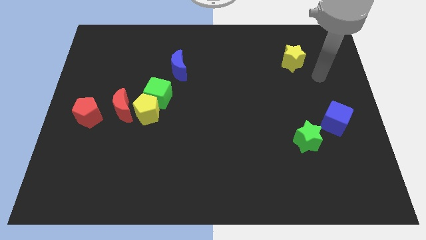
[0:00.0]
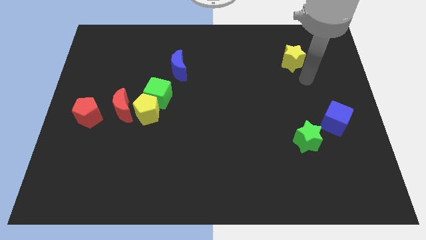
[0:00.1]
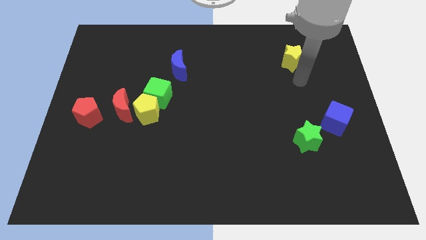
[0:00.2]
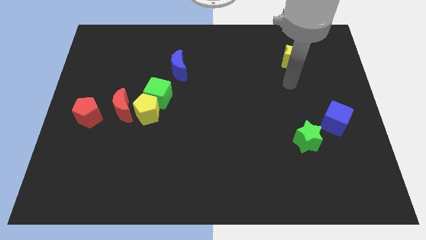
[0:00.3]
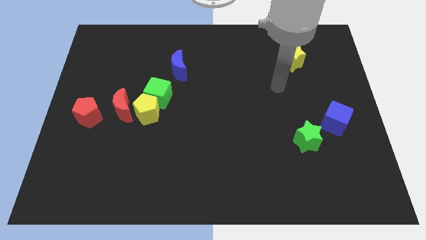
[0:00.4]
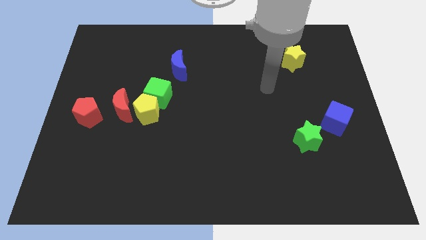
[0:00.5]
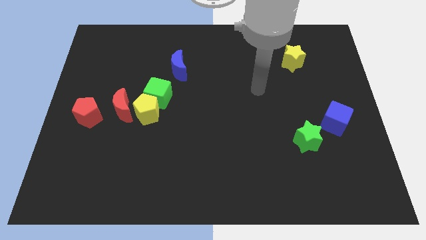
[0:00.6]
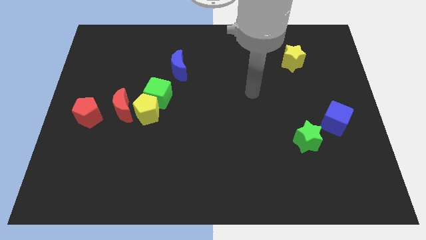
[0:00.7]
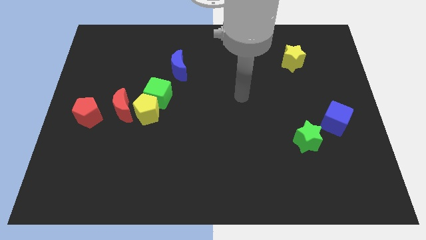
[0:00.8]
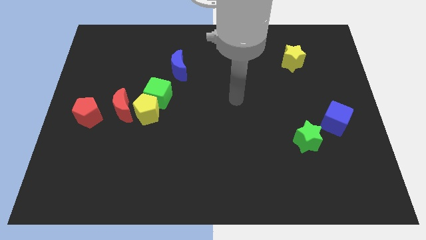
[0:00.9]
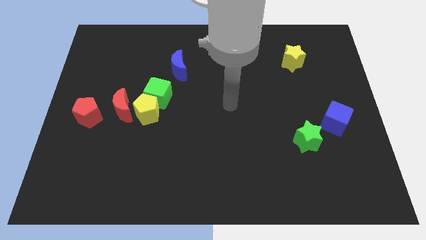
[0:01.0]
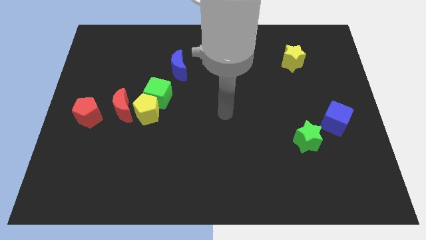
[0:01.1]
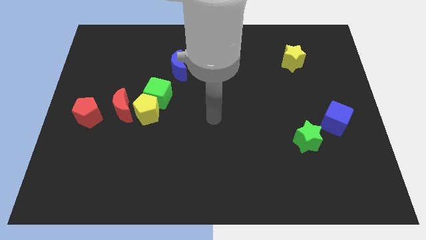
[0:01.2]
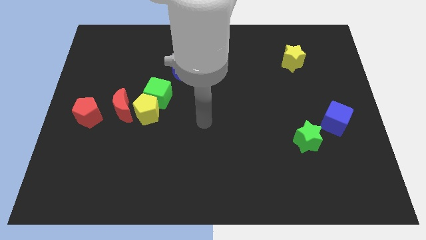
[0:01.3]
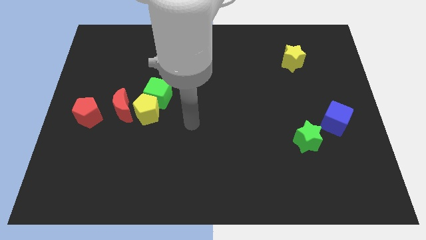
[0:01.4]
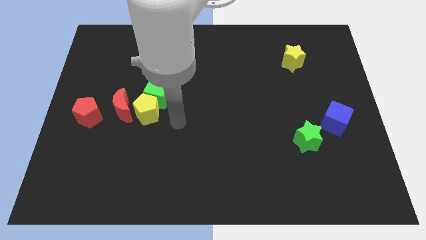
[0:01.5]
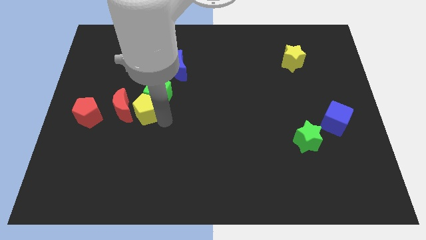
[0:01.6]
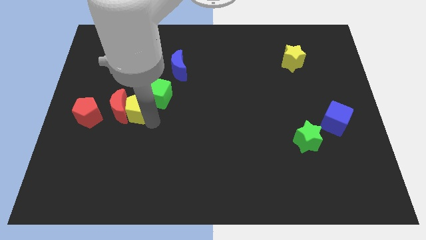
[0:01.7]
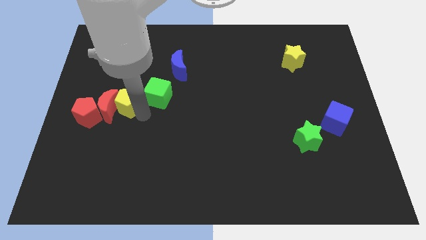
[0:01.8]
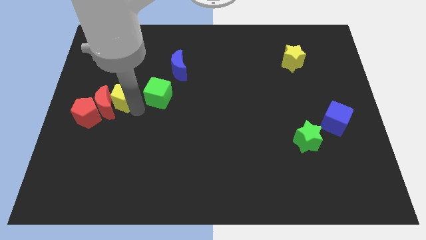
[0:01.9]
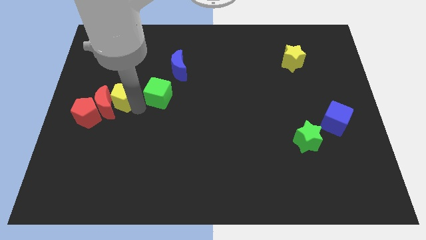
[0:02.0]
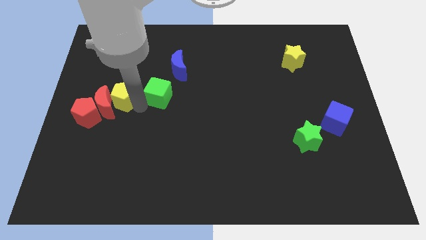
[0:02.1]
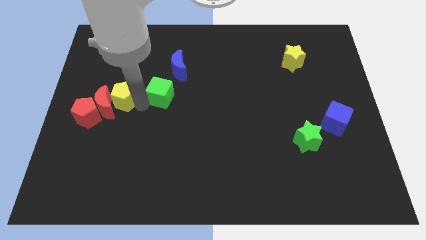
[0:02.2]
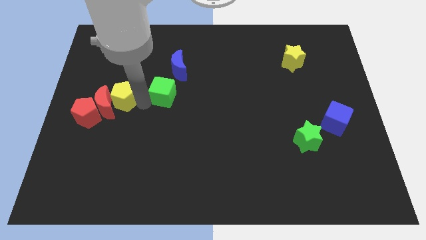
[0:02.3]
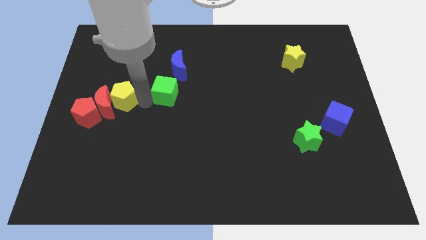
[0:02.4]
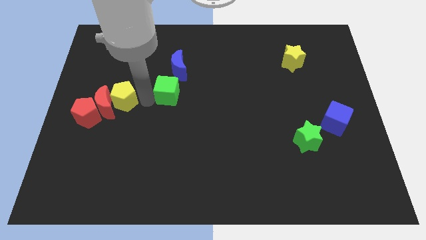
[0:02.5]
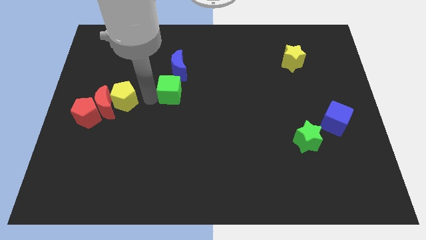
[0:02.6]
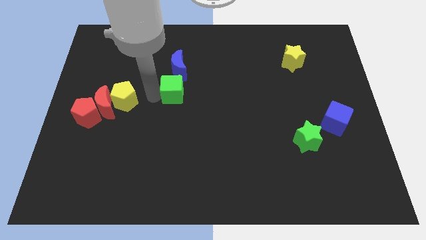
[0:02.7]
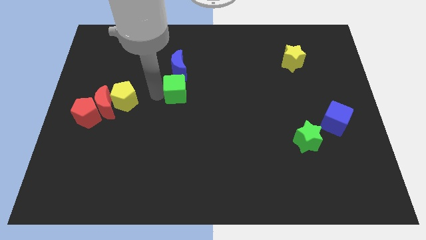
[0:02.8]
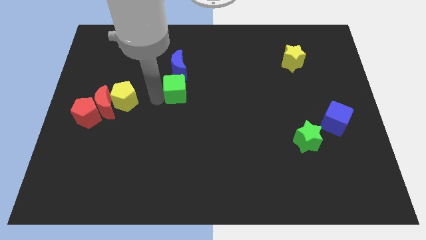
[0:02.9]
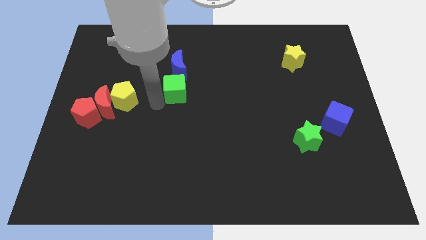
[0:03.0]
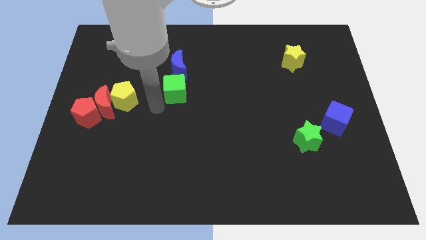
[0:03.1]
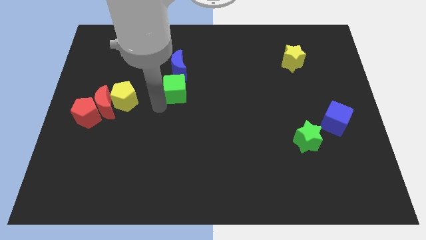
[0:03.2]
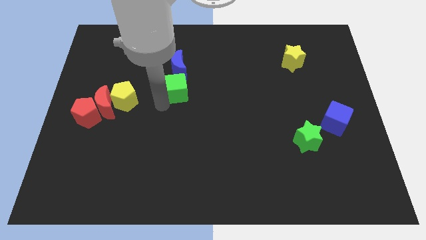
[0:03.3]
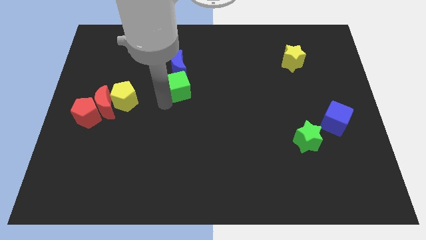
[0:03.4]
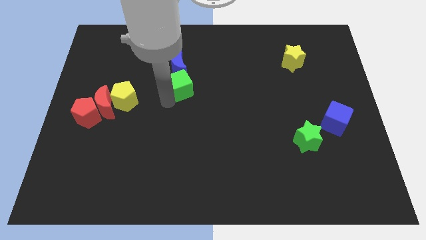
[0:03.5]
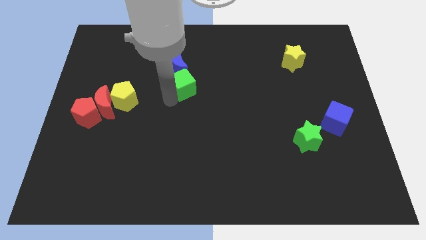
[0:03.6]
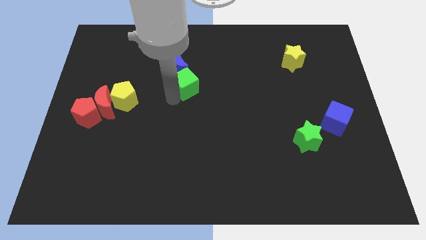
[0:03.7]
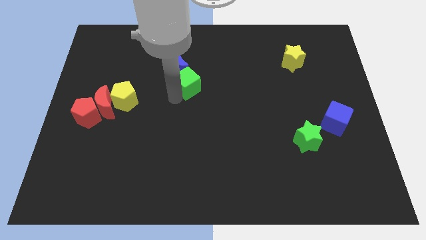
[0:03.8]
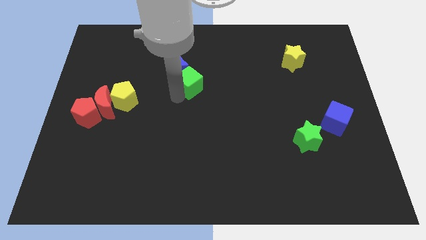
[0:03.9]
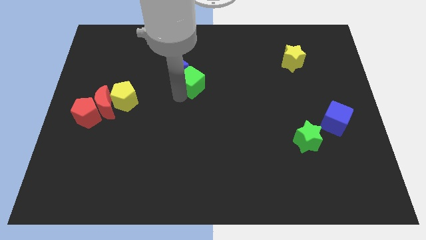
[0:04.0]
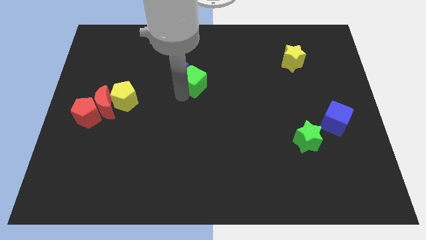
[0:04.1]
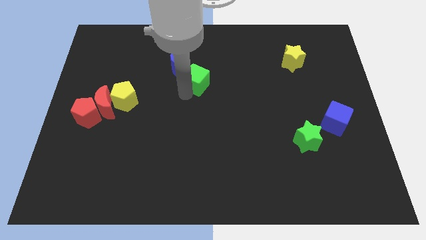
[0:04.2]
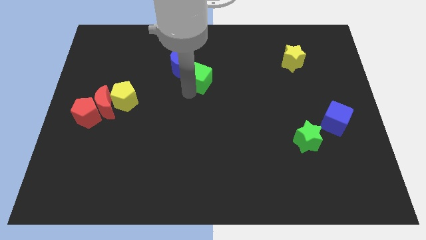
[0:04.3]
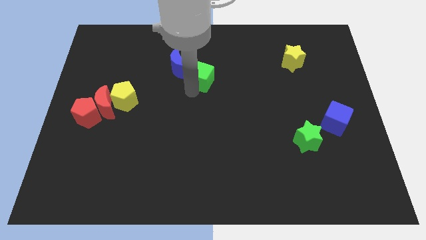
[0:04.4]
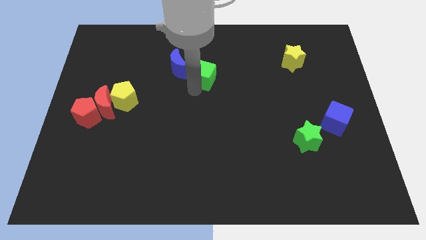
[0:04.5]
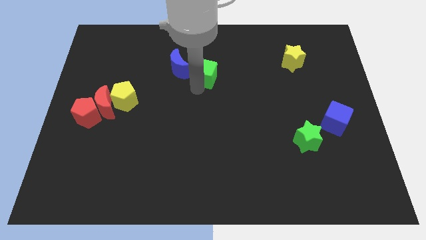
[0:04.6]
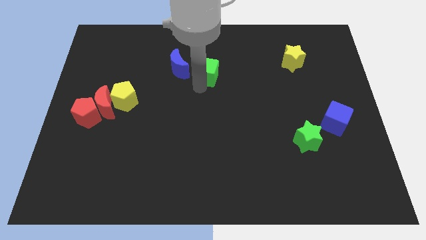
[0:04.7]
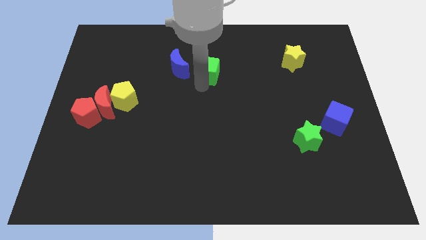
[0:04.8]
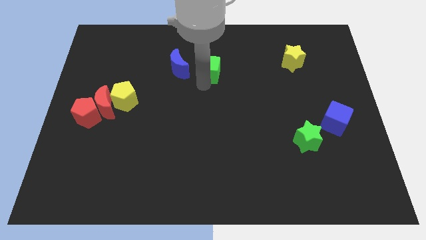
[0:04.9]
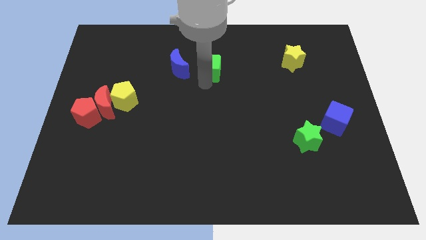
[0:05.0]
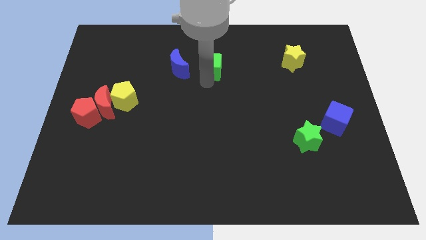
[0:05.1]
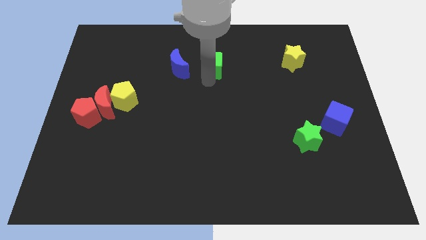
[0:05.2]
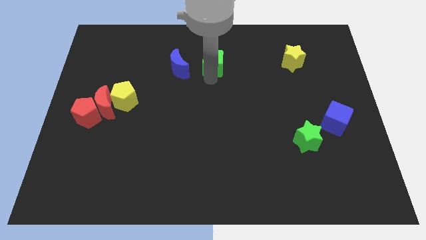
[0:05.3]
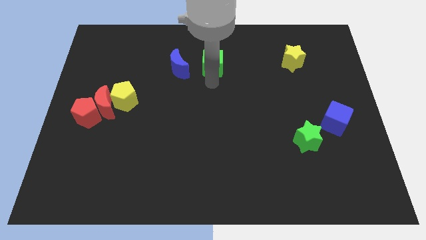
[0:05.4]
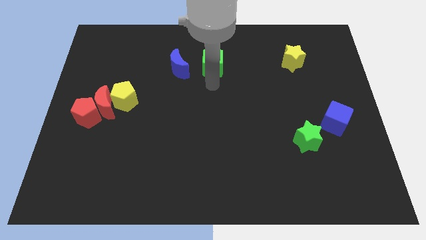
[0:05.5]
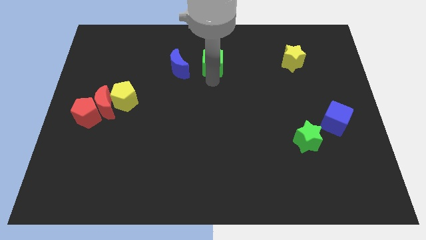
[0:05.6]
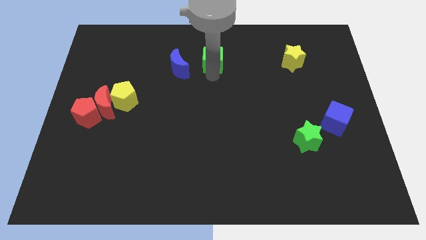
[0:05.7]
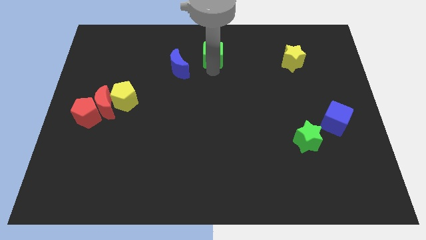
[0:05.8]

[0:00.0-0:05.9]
move the green cube to the towards your base
